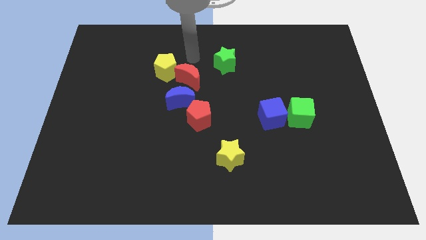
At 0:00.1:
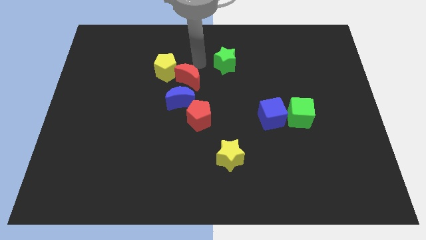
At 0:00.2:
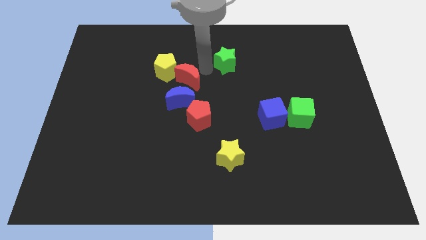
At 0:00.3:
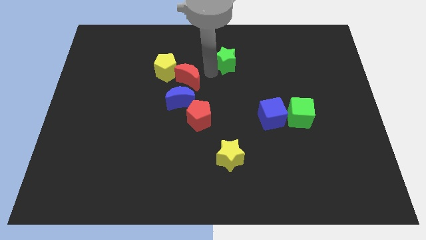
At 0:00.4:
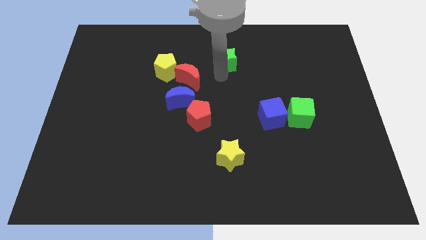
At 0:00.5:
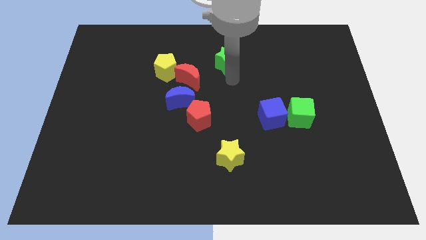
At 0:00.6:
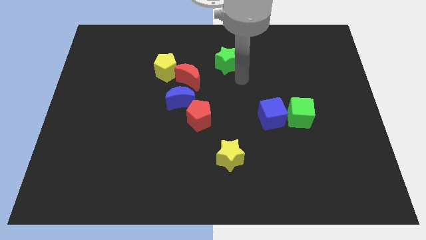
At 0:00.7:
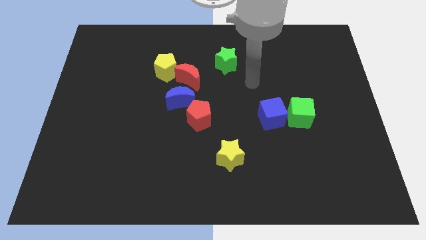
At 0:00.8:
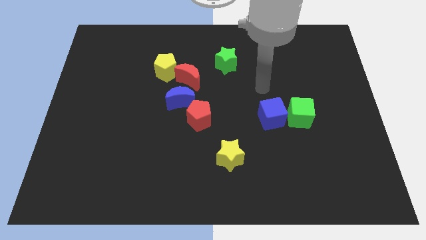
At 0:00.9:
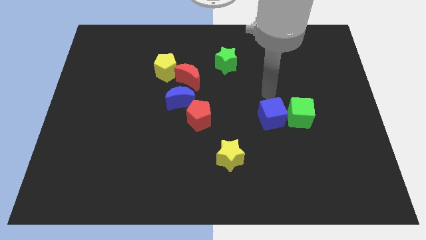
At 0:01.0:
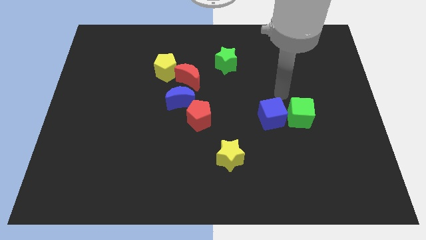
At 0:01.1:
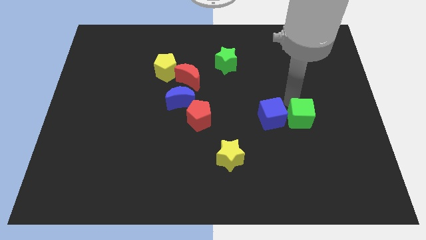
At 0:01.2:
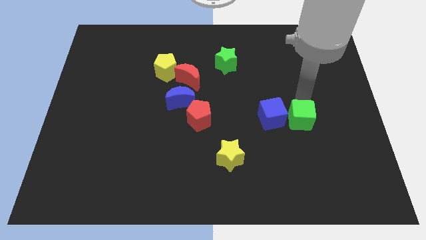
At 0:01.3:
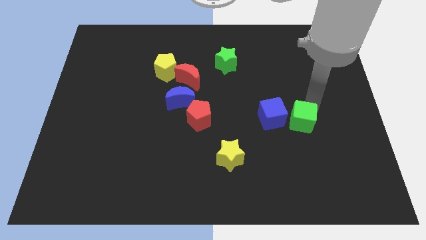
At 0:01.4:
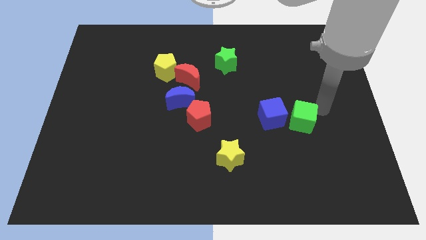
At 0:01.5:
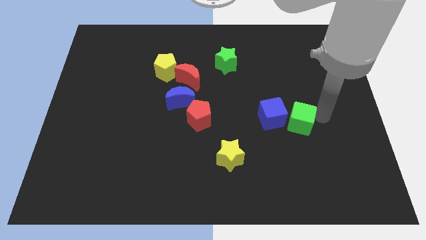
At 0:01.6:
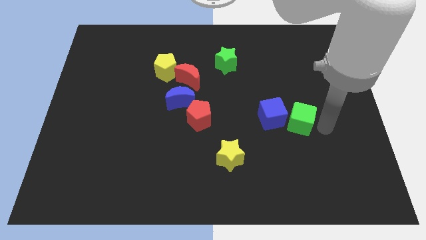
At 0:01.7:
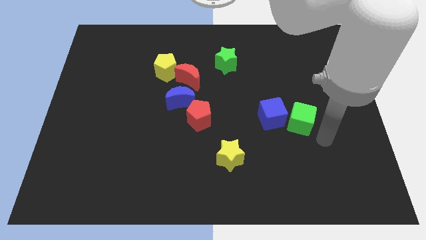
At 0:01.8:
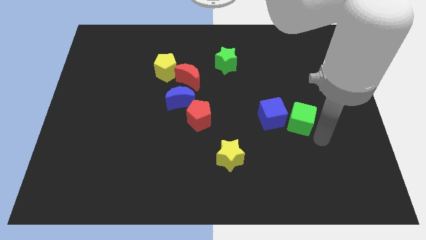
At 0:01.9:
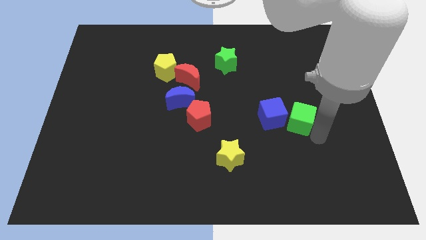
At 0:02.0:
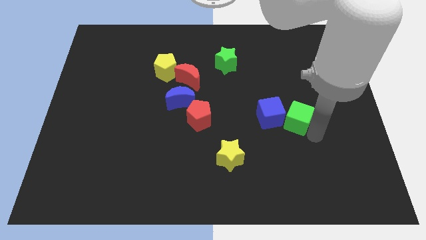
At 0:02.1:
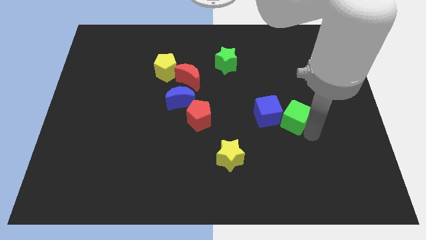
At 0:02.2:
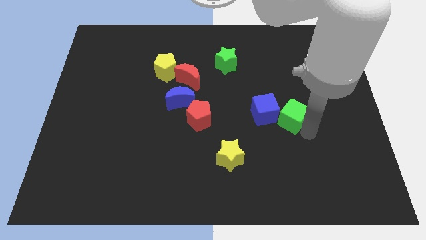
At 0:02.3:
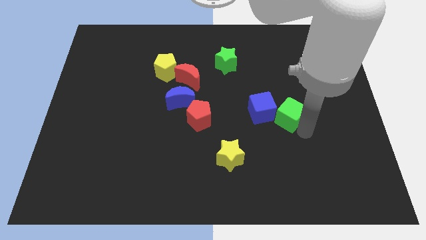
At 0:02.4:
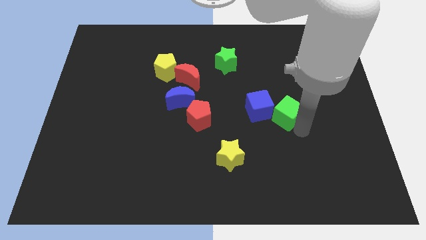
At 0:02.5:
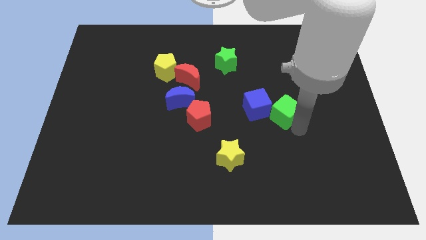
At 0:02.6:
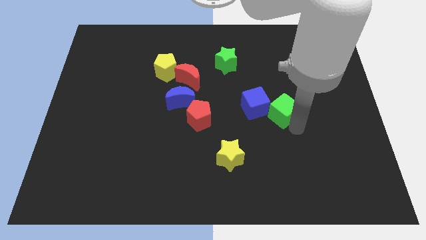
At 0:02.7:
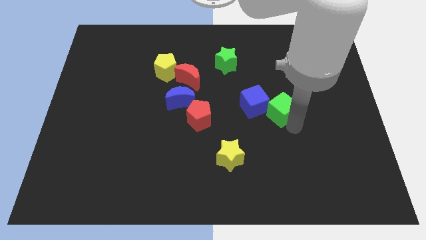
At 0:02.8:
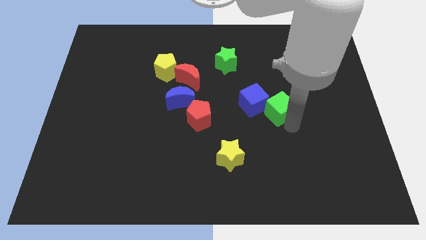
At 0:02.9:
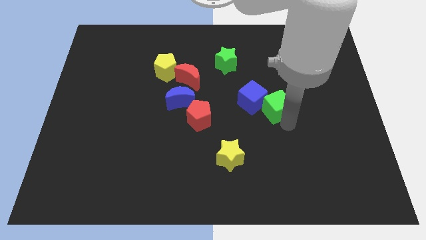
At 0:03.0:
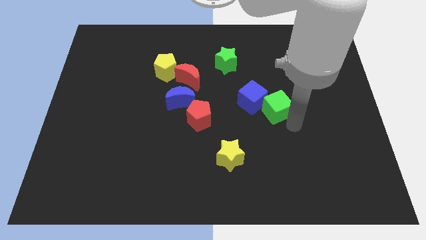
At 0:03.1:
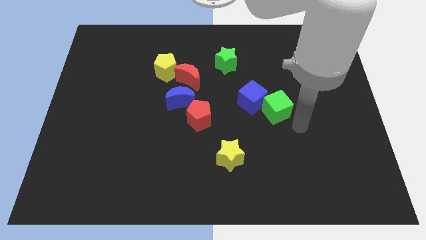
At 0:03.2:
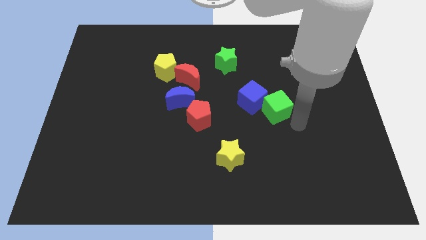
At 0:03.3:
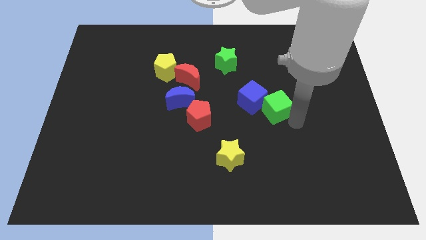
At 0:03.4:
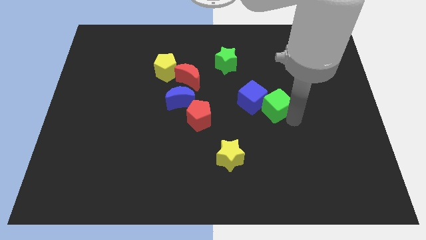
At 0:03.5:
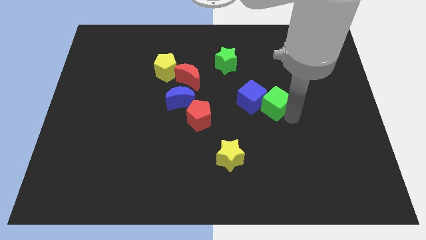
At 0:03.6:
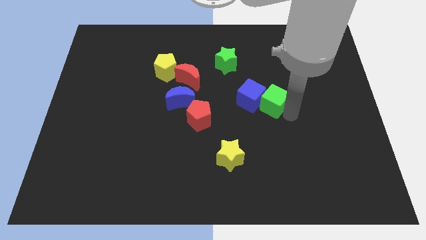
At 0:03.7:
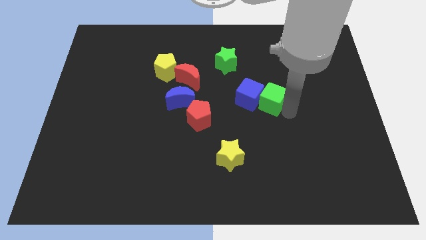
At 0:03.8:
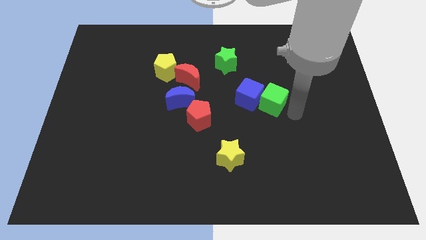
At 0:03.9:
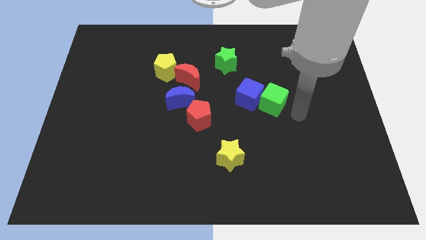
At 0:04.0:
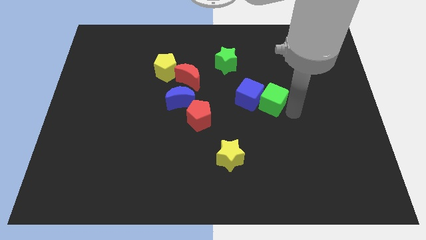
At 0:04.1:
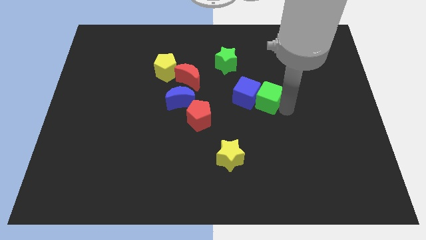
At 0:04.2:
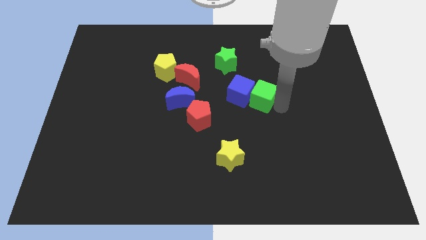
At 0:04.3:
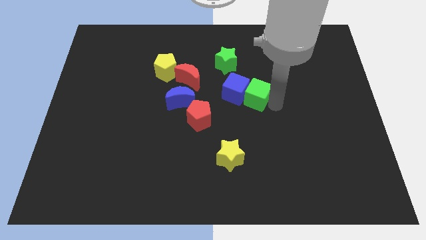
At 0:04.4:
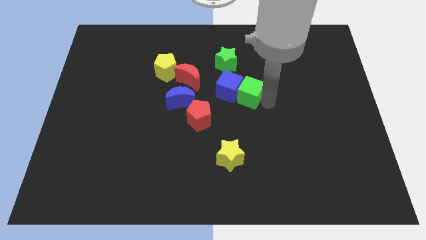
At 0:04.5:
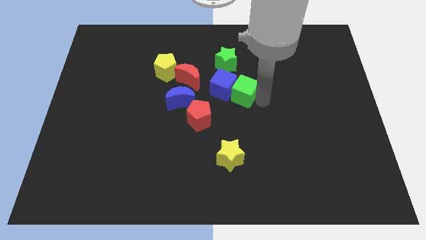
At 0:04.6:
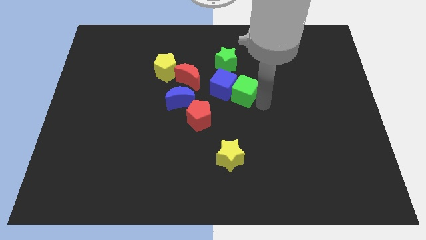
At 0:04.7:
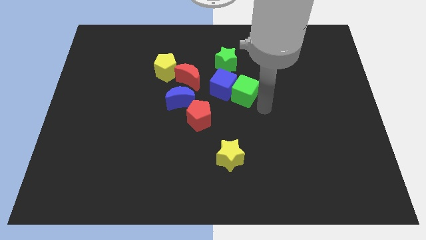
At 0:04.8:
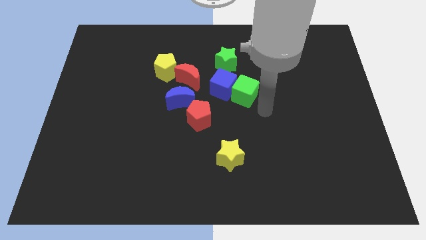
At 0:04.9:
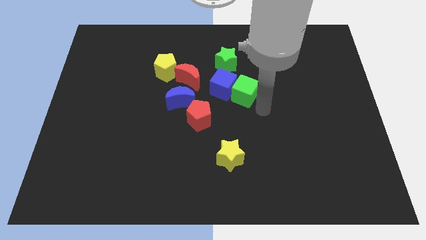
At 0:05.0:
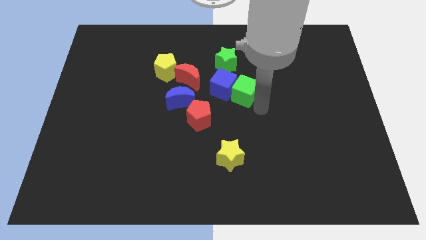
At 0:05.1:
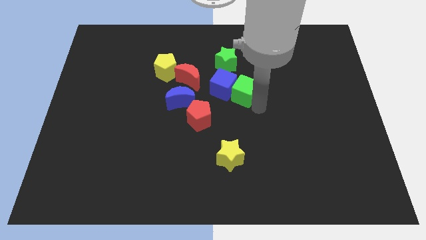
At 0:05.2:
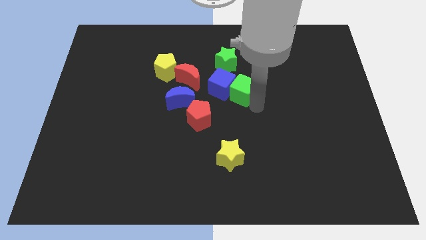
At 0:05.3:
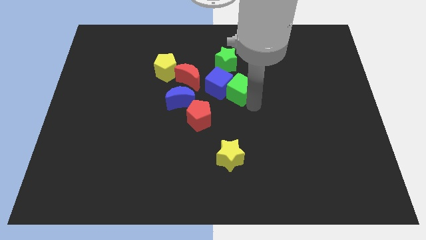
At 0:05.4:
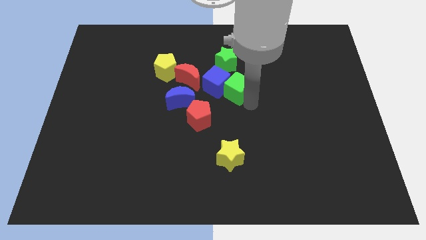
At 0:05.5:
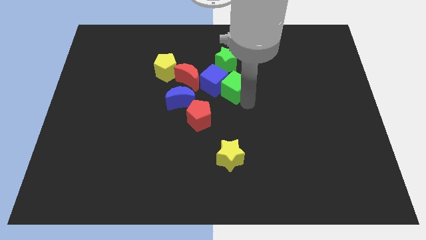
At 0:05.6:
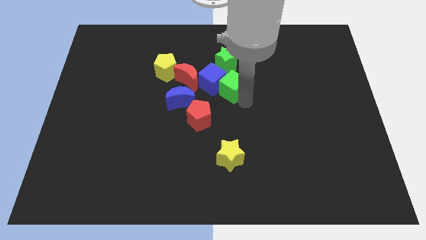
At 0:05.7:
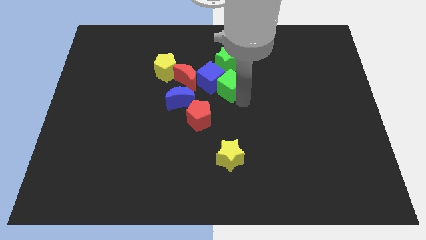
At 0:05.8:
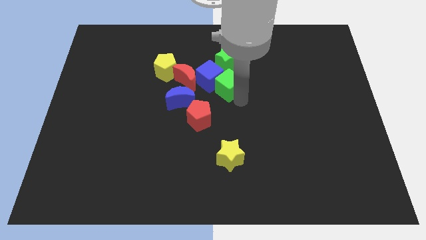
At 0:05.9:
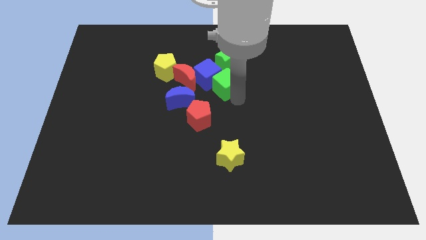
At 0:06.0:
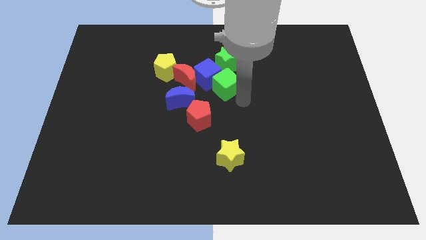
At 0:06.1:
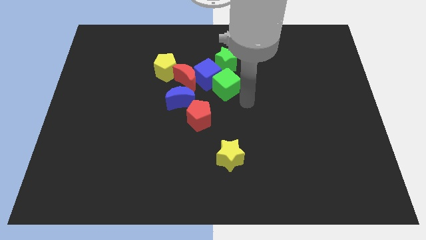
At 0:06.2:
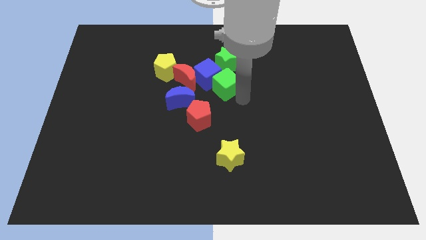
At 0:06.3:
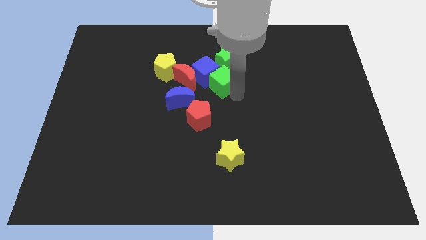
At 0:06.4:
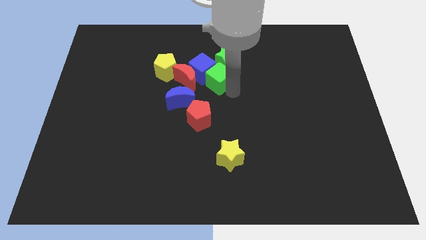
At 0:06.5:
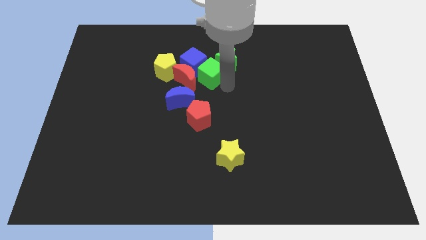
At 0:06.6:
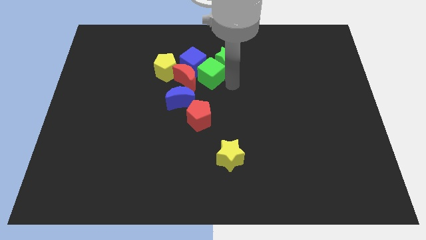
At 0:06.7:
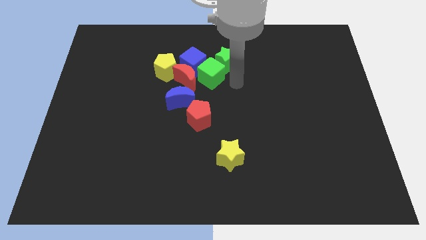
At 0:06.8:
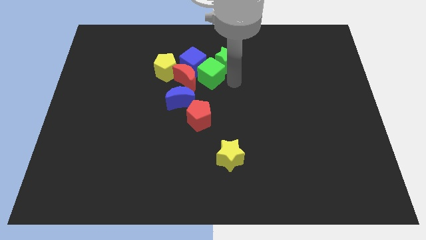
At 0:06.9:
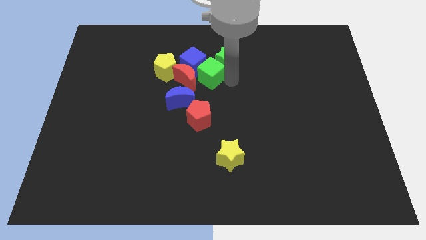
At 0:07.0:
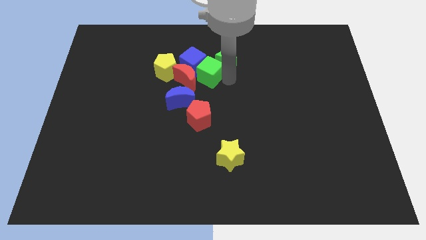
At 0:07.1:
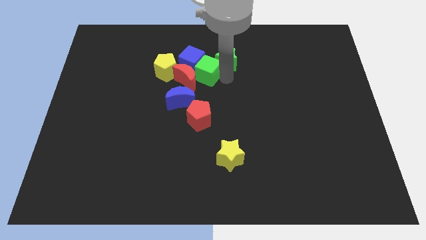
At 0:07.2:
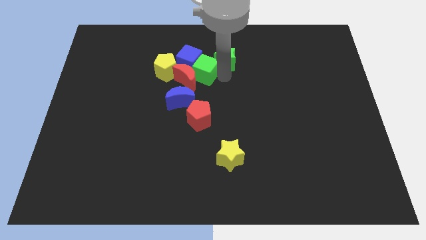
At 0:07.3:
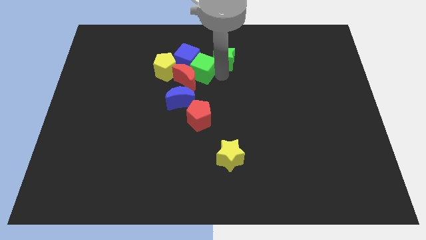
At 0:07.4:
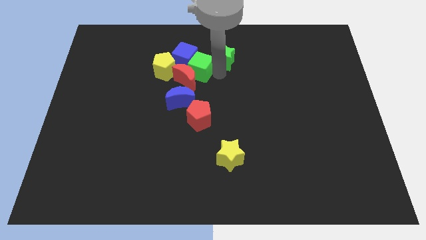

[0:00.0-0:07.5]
move the green cube above the blue moon
